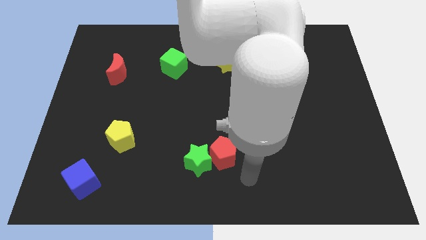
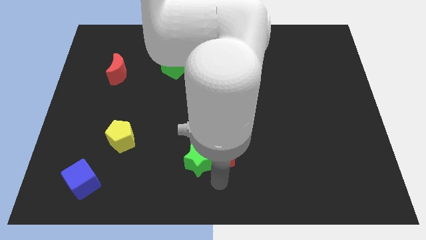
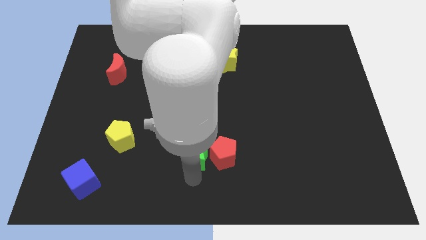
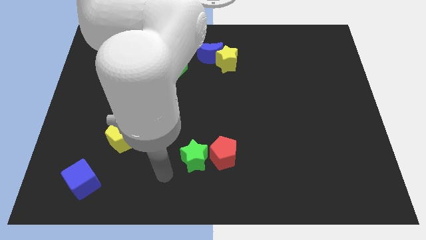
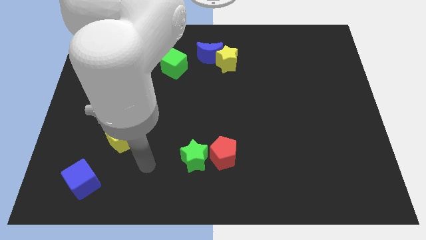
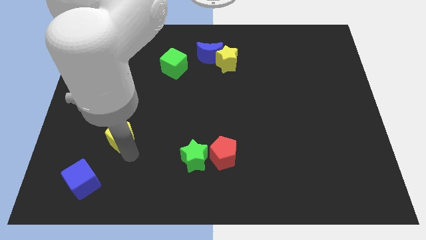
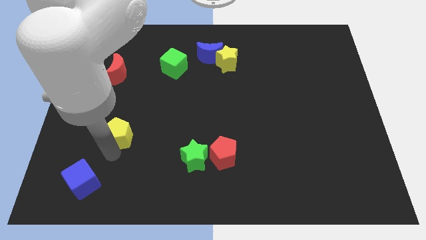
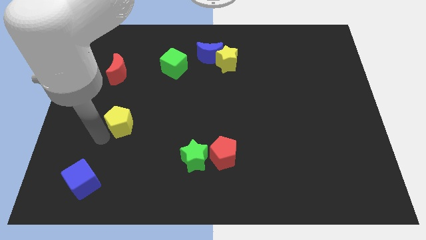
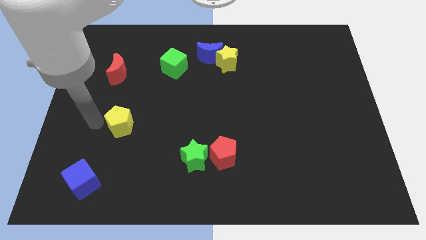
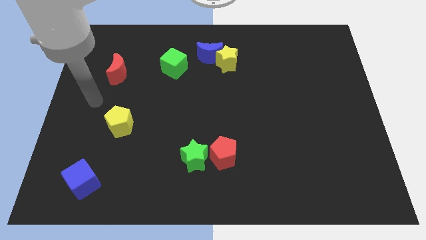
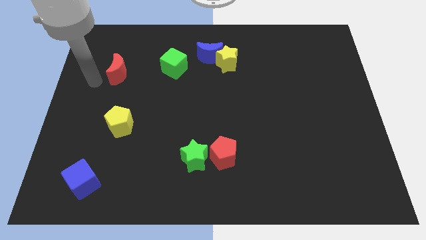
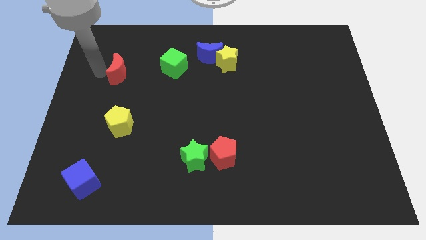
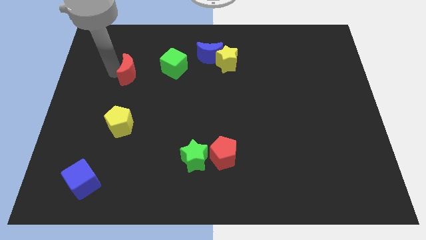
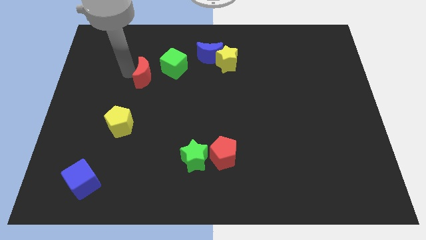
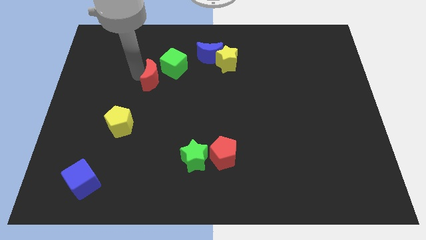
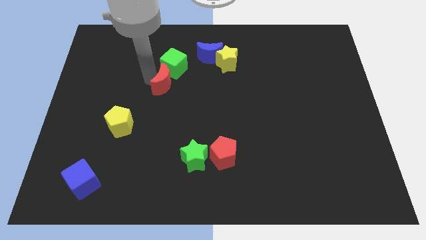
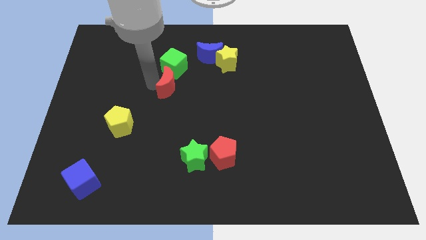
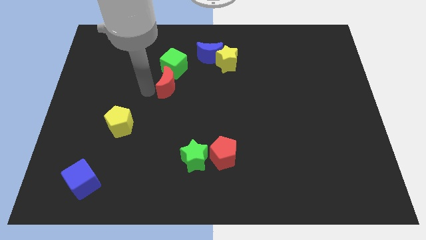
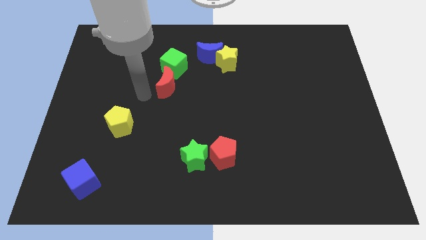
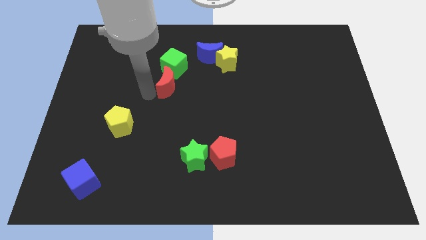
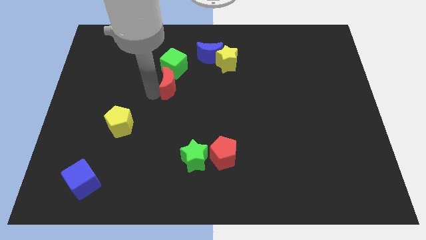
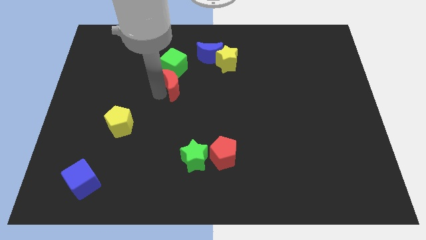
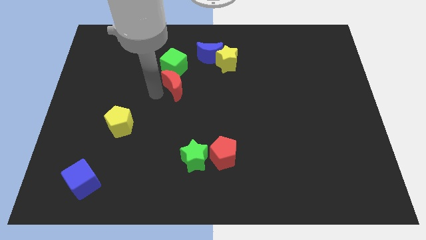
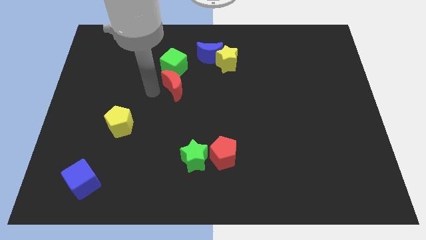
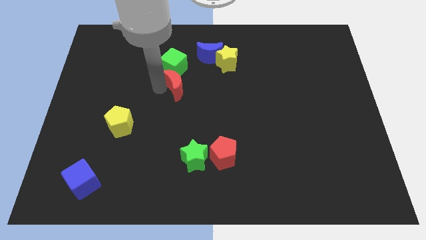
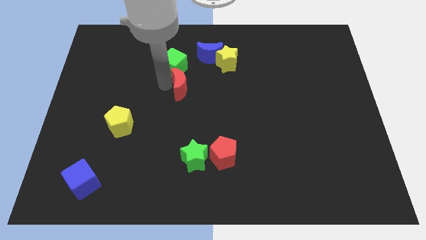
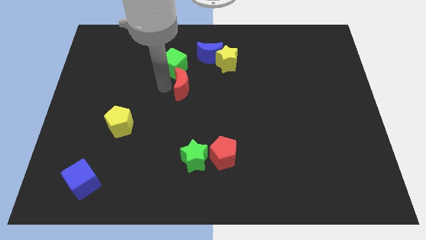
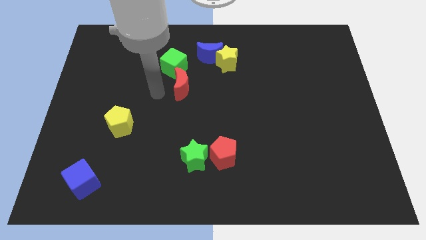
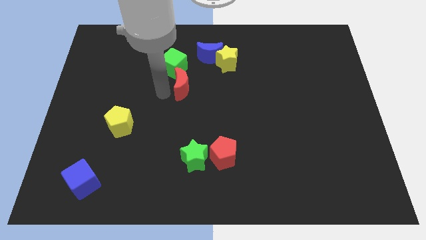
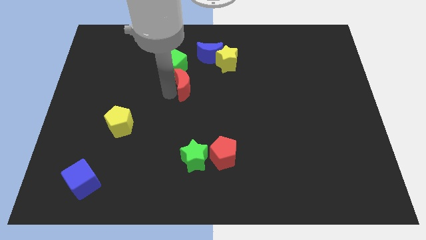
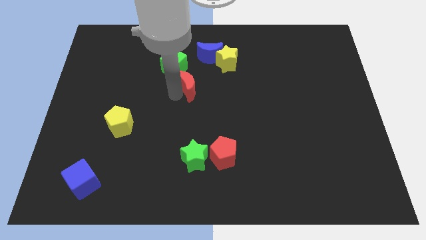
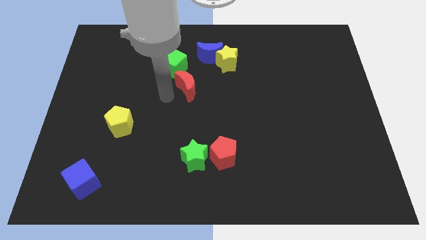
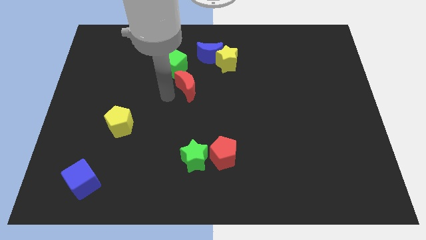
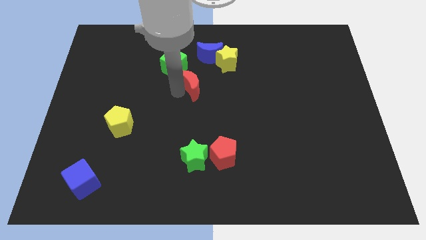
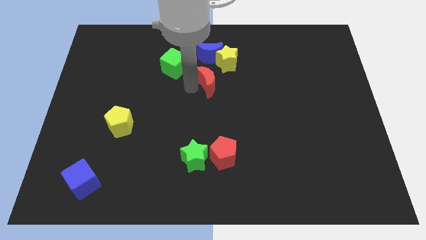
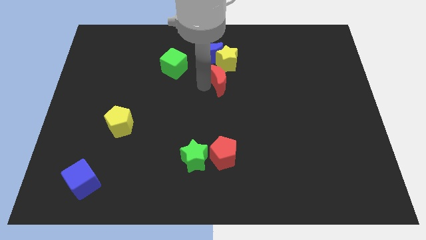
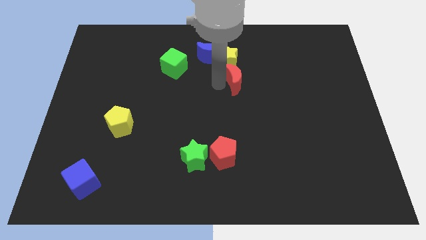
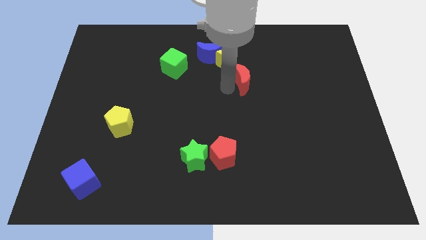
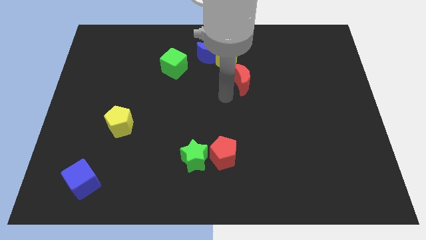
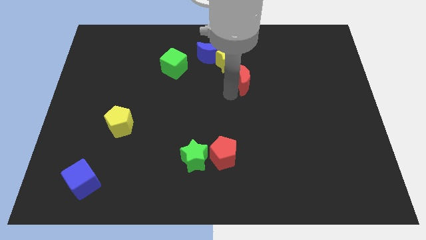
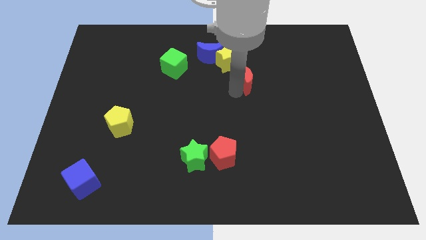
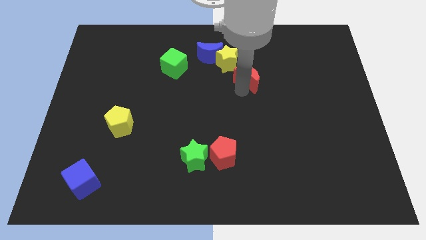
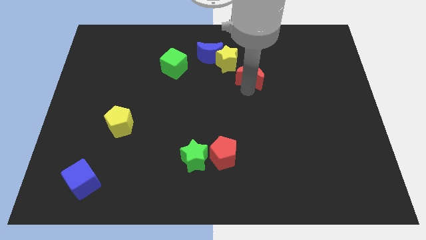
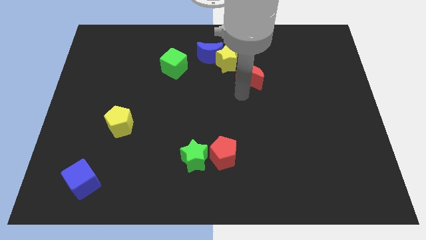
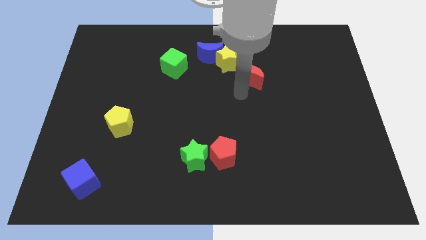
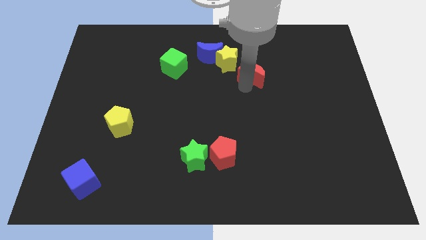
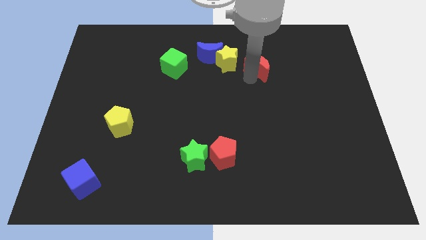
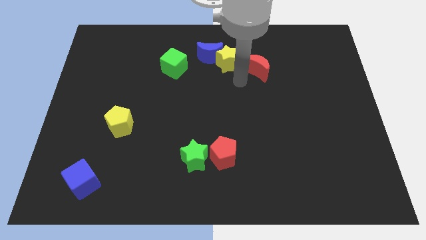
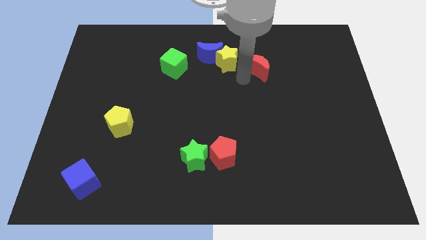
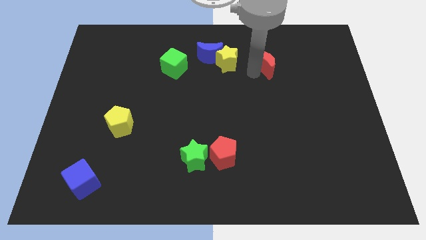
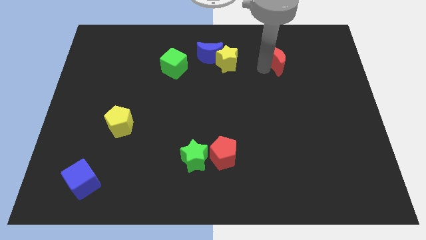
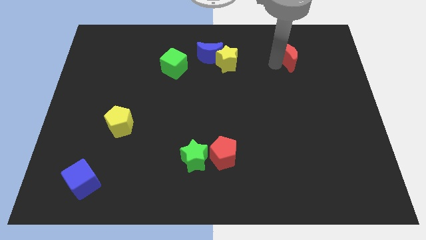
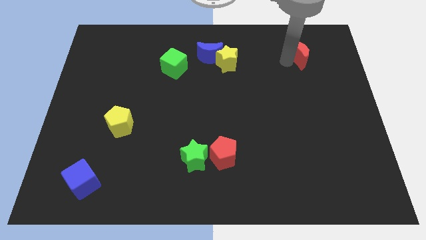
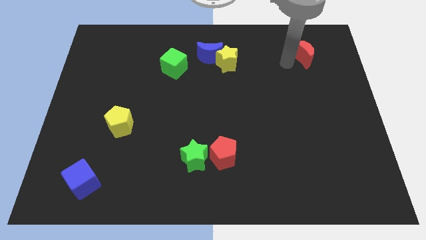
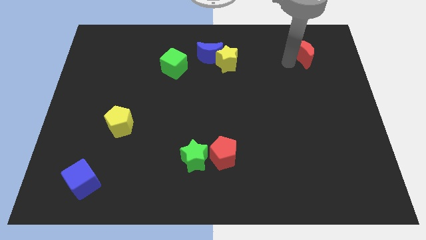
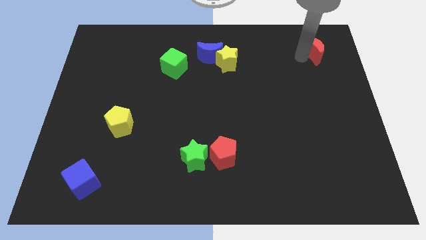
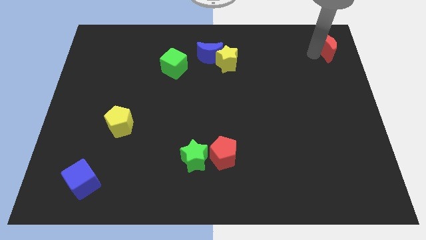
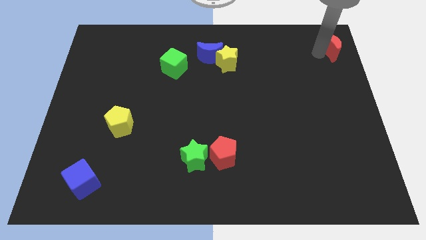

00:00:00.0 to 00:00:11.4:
push the red moon to the top right corner

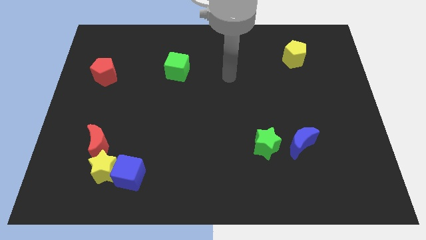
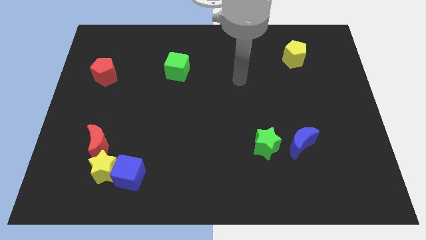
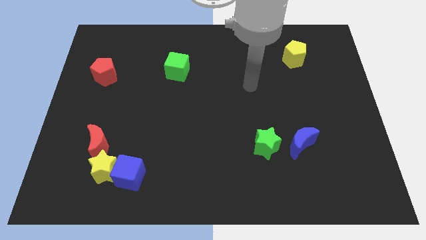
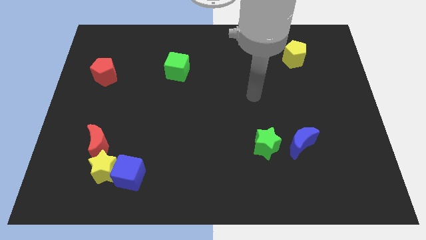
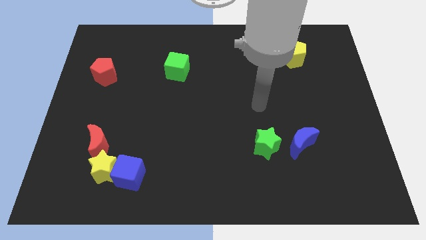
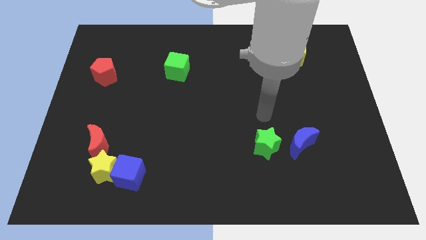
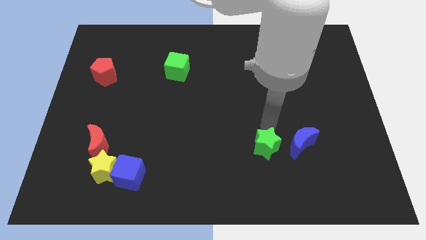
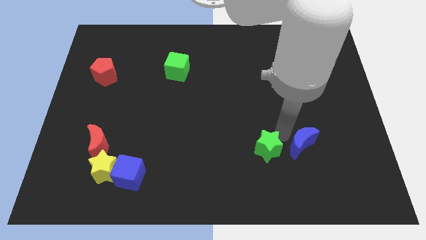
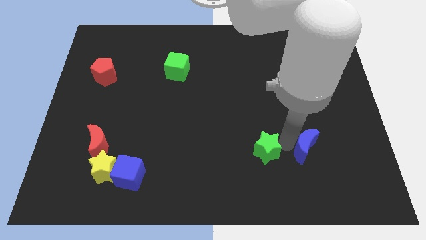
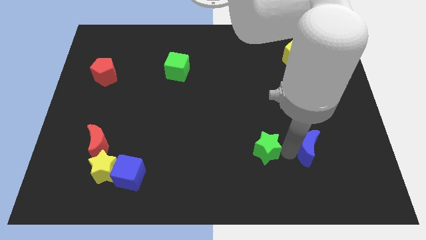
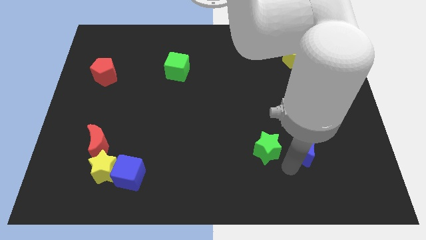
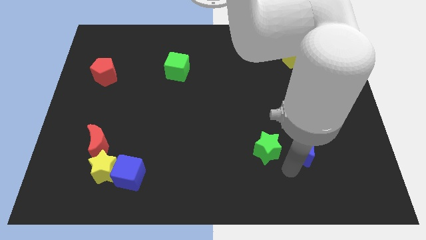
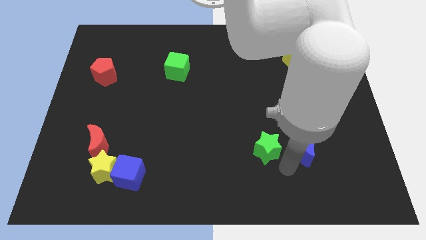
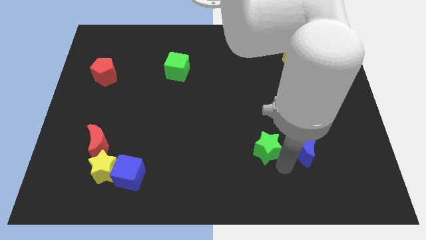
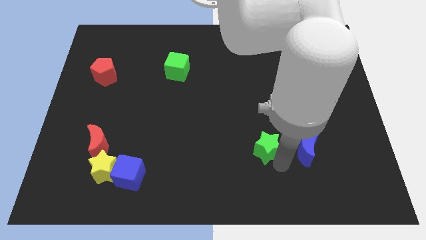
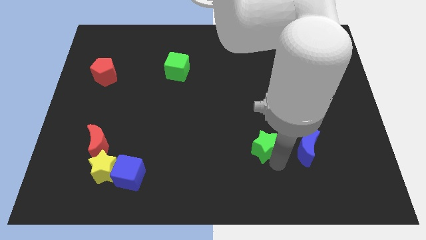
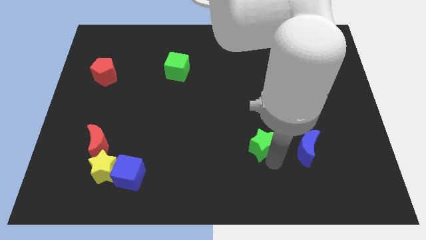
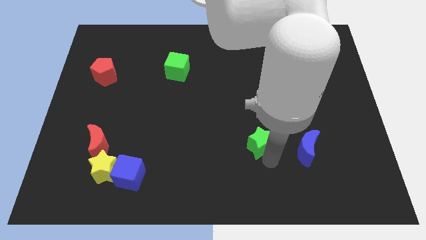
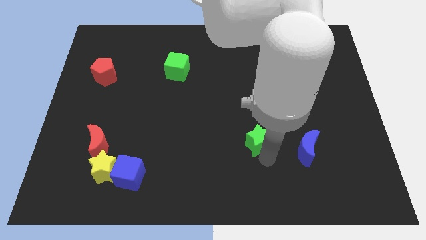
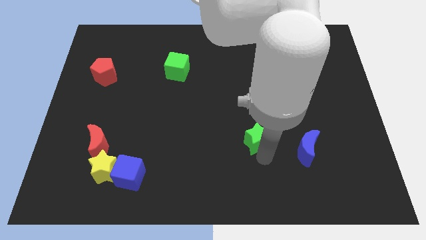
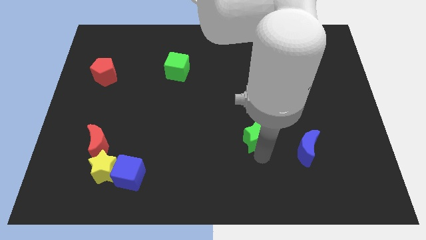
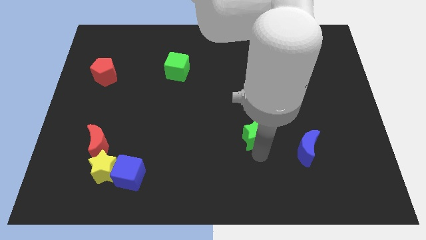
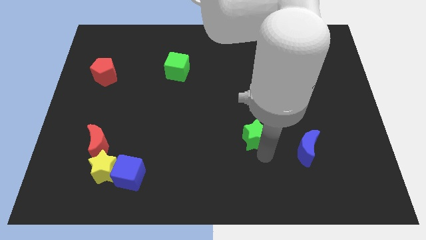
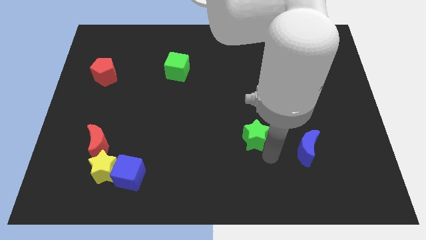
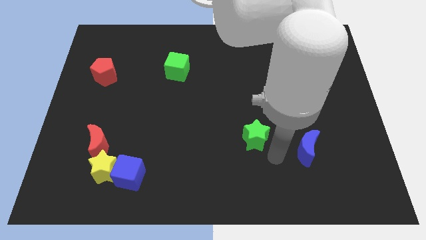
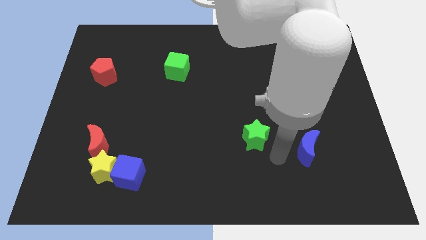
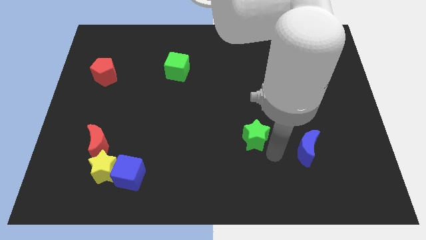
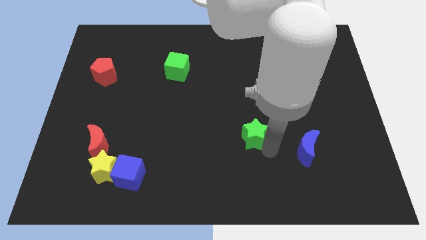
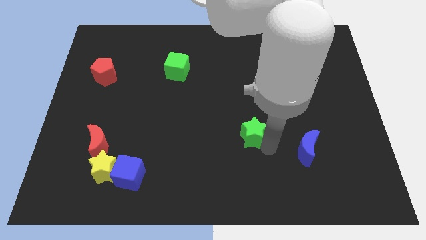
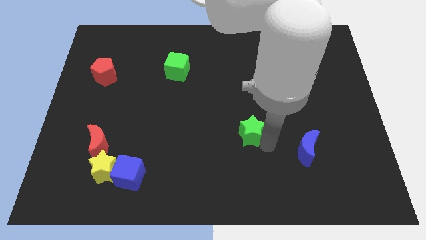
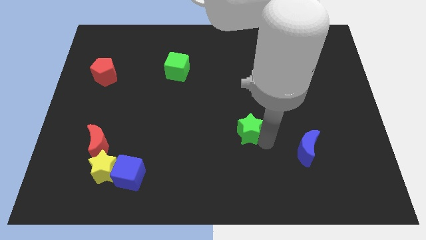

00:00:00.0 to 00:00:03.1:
push the green star to the center of the board
